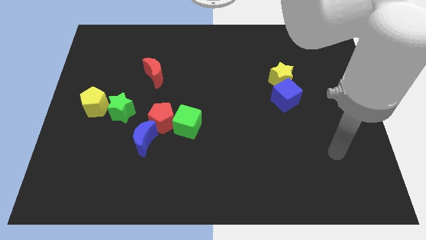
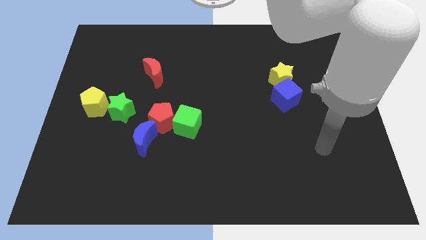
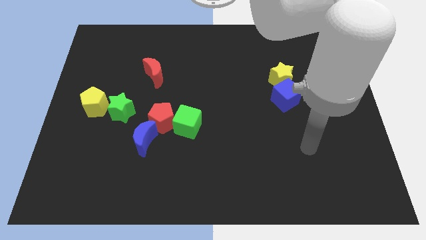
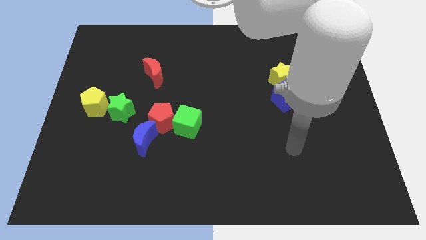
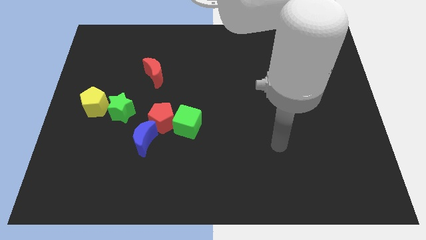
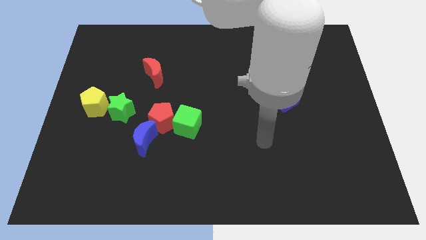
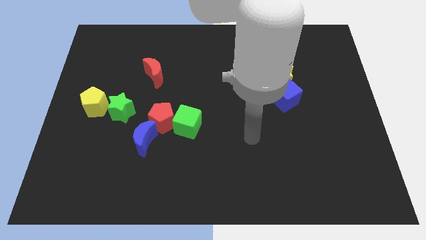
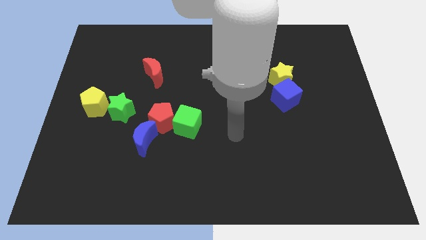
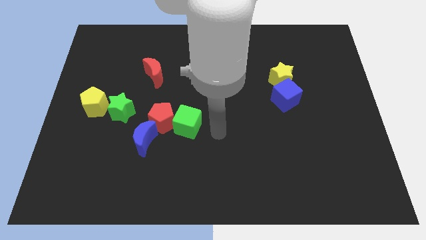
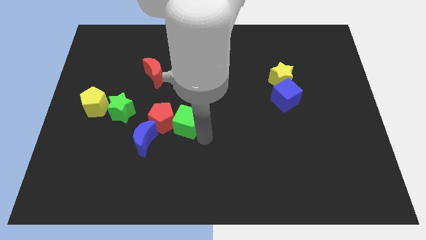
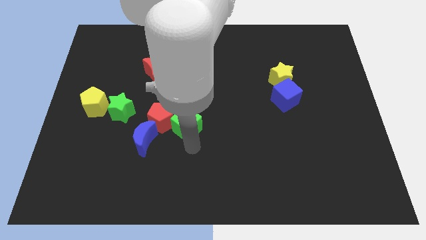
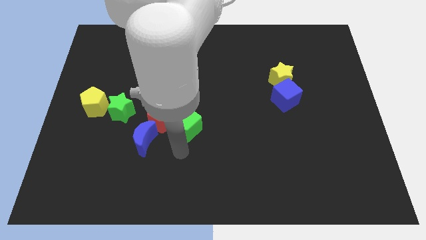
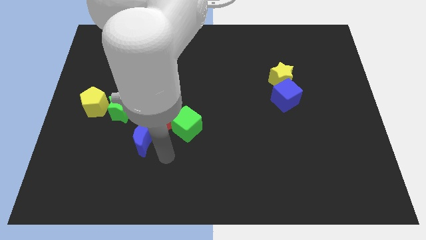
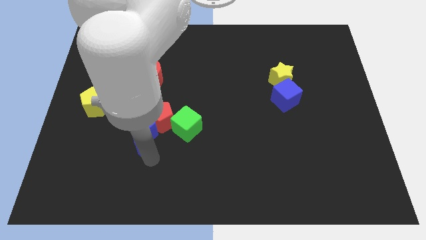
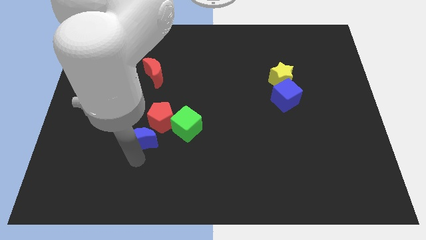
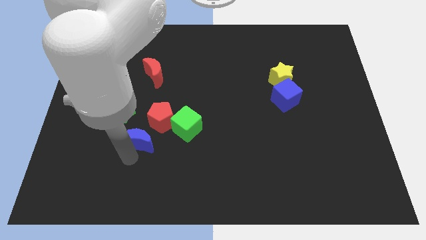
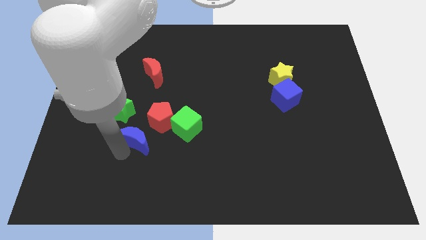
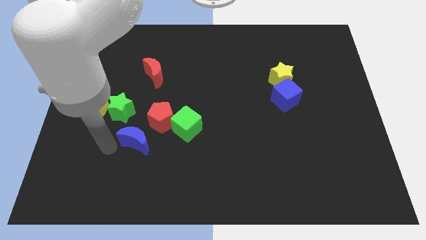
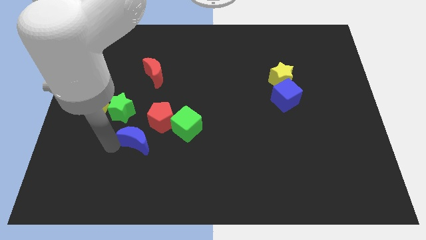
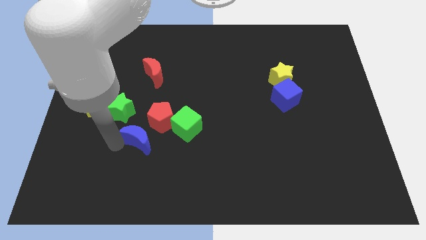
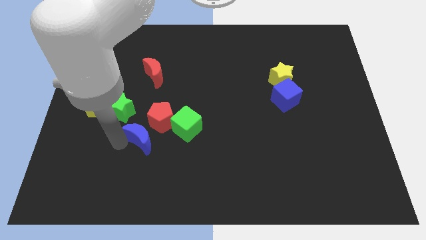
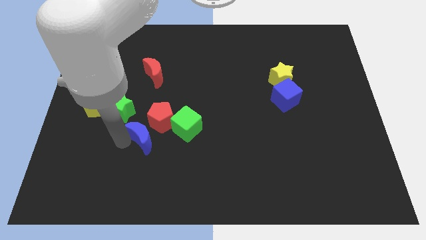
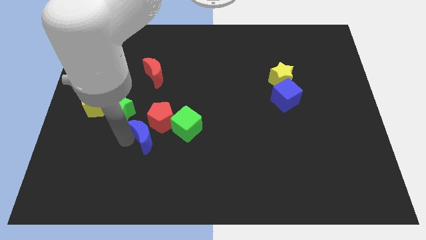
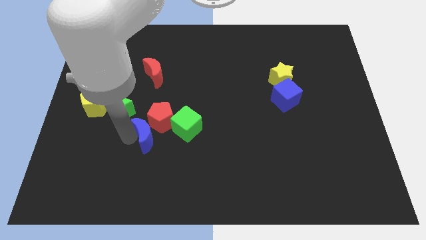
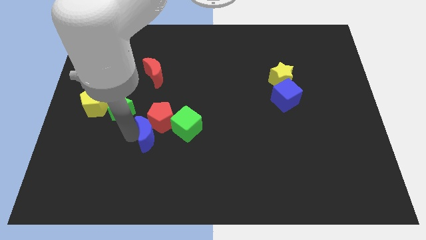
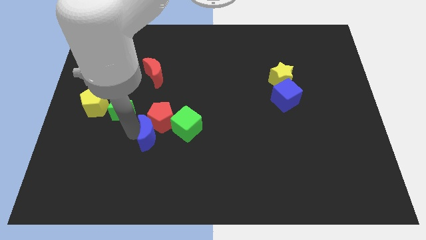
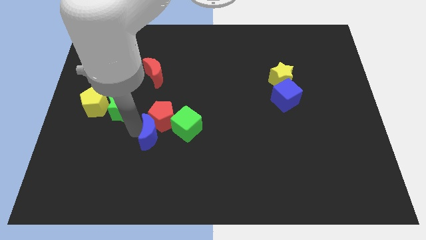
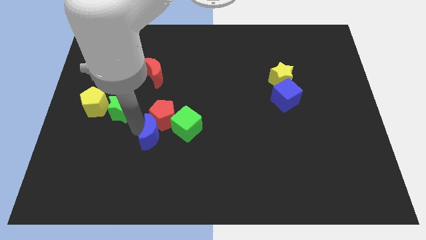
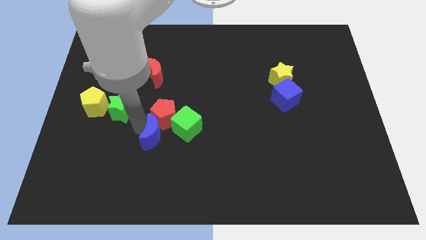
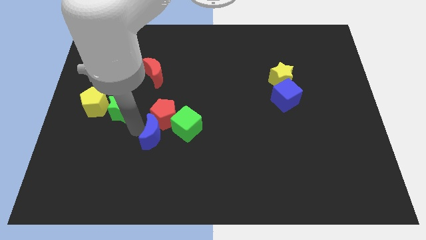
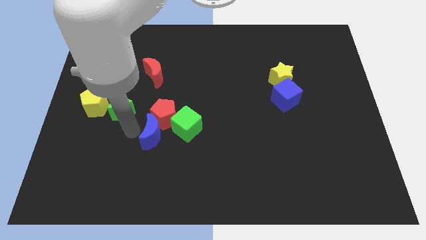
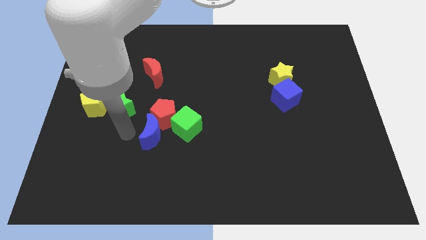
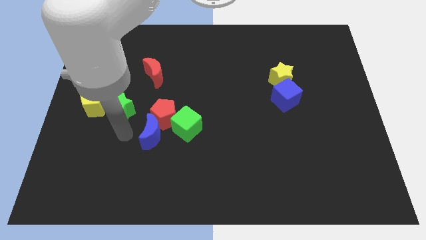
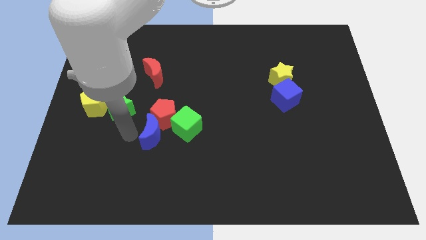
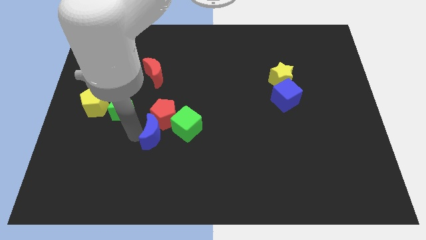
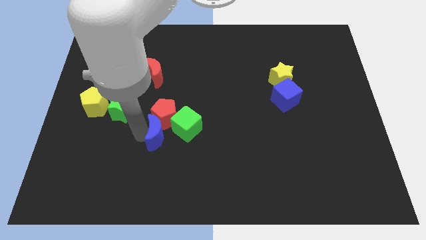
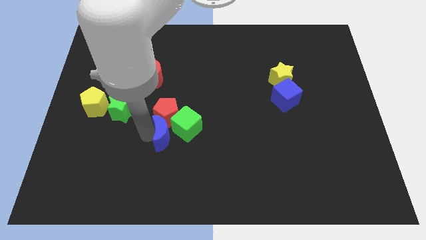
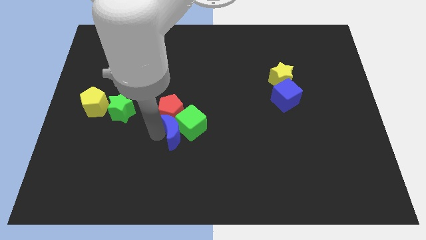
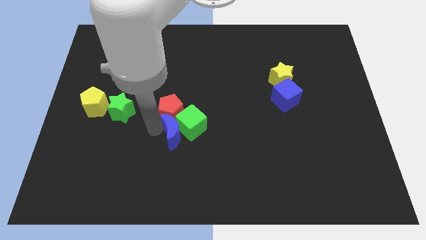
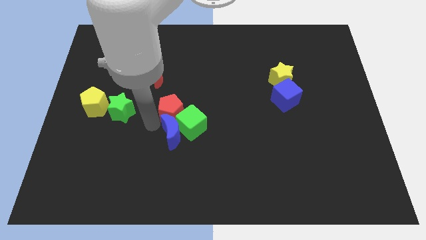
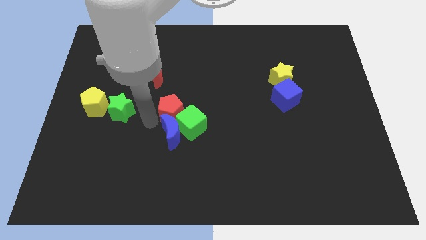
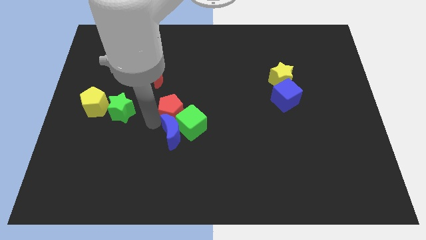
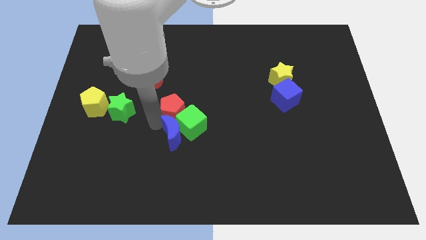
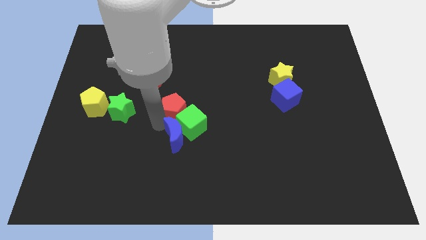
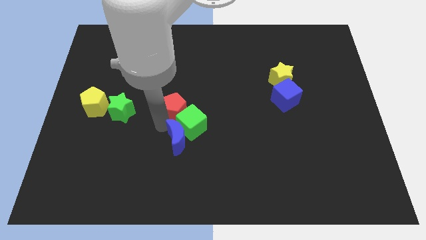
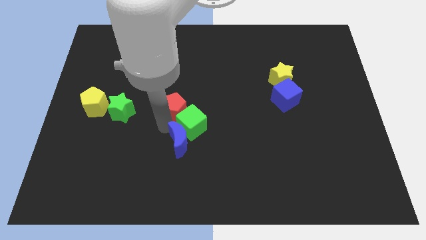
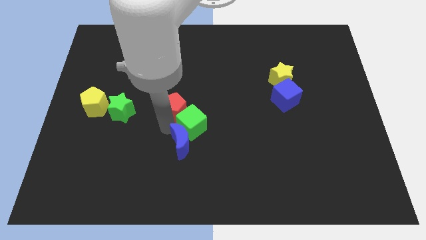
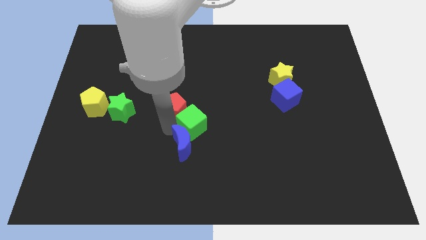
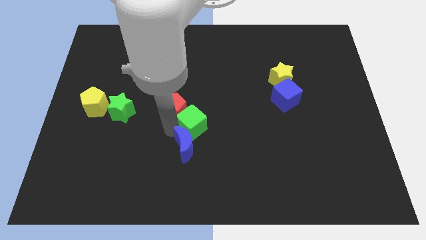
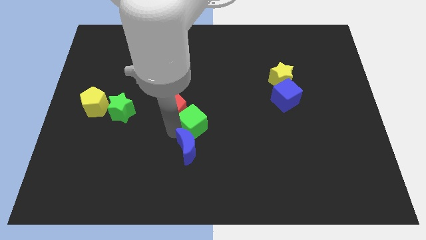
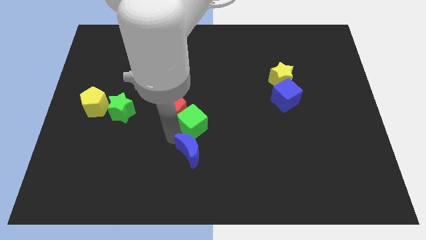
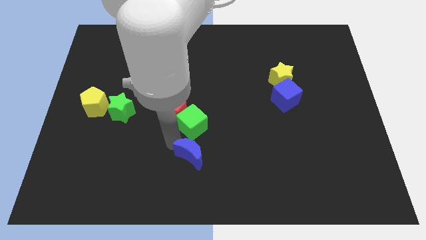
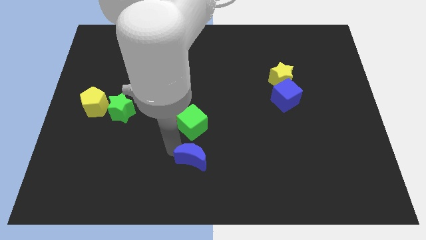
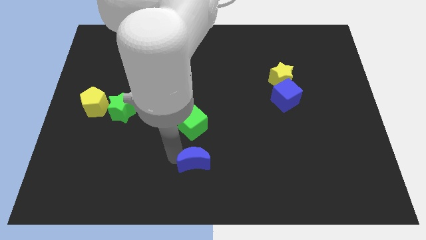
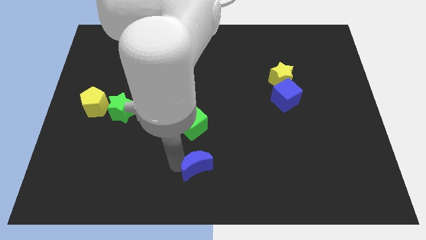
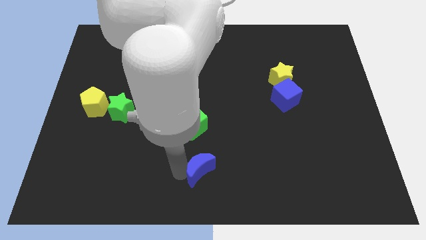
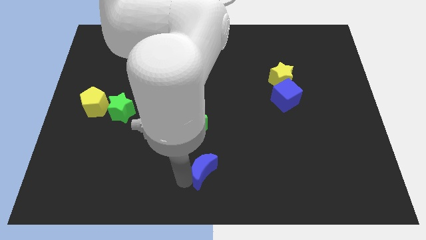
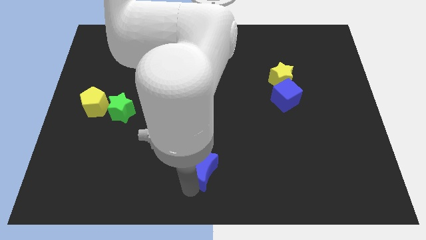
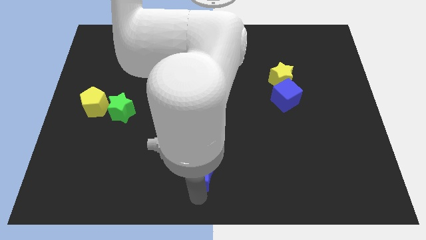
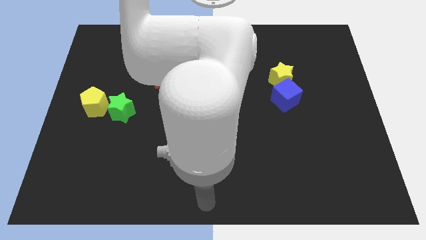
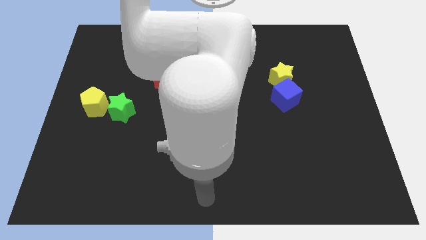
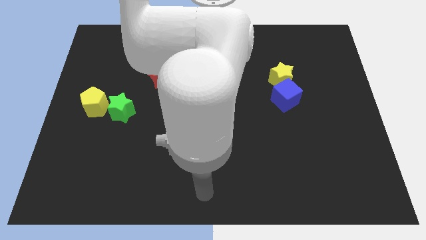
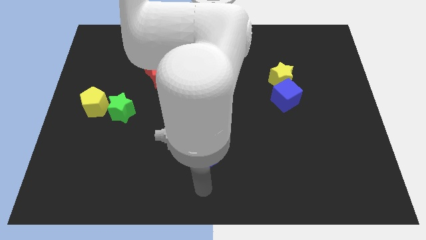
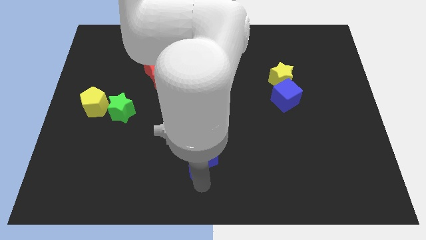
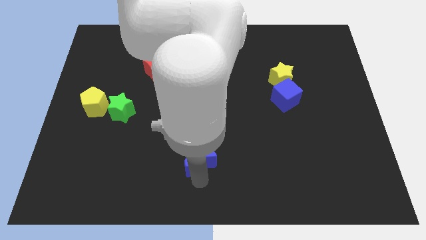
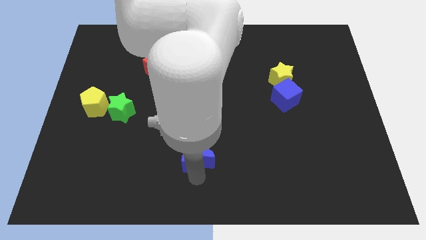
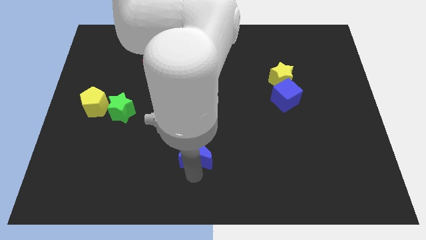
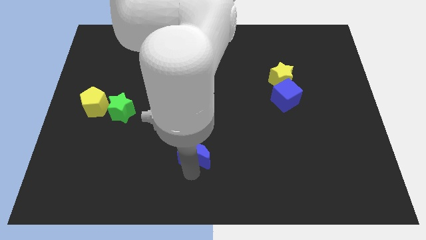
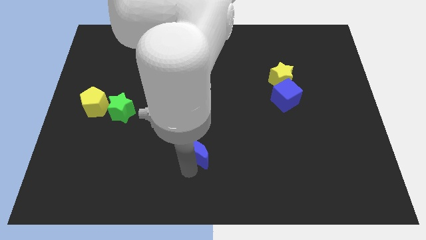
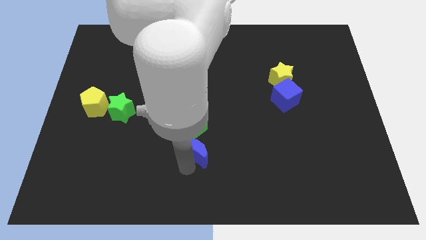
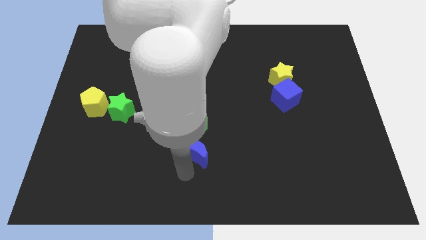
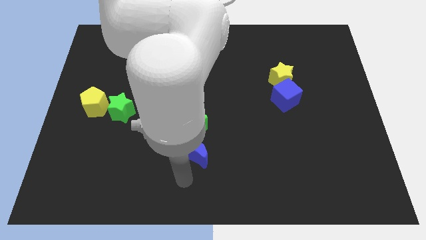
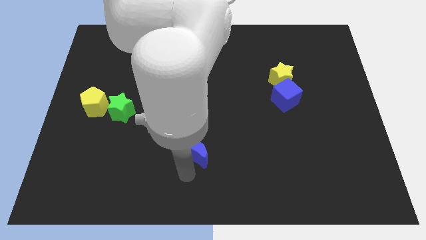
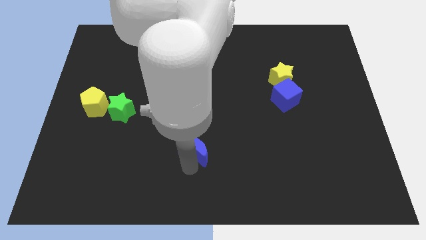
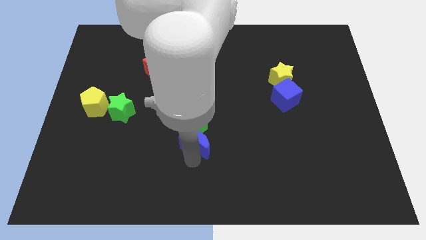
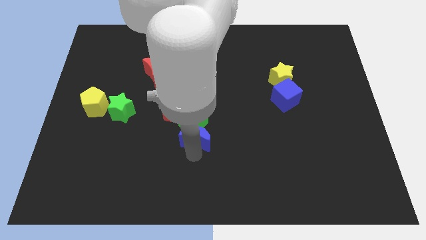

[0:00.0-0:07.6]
push the blue moon to the center of the board
